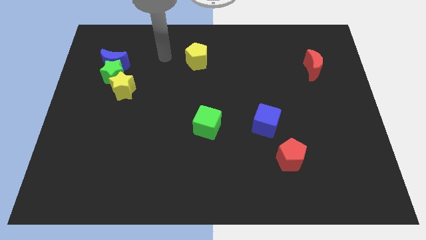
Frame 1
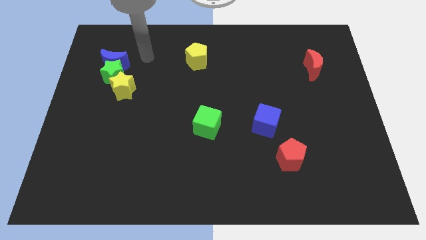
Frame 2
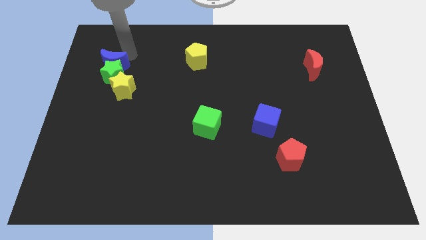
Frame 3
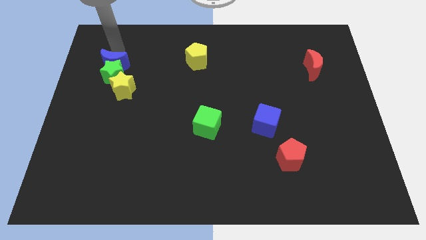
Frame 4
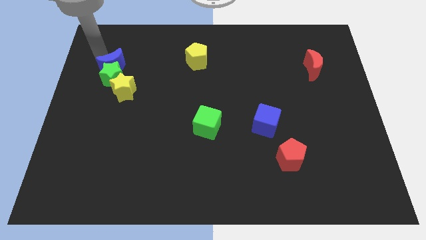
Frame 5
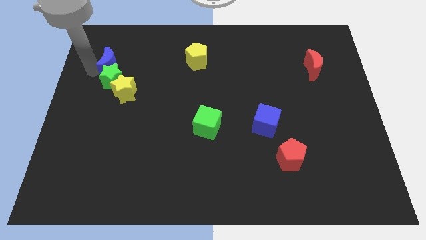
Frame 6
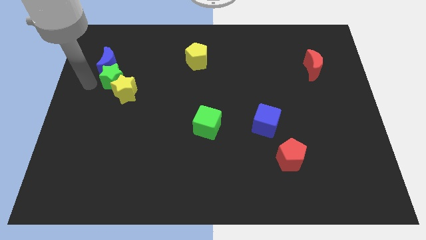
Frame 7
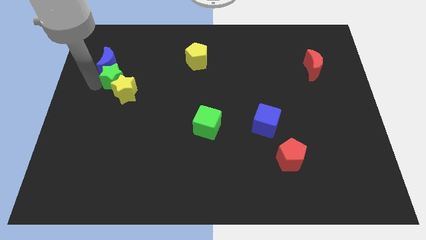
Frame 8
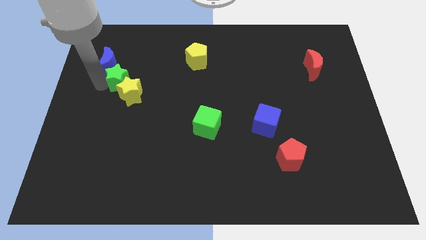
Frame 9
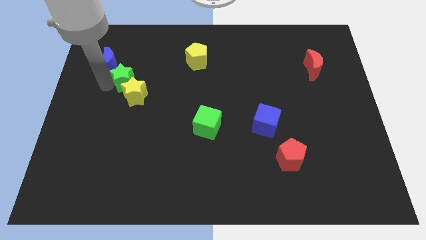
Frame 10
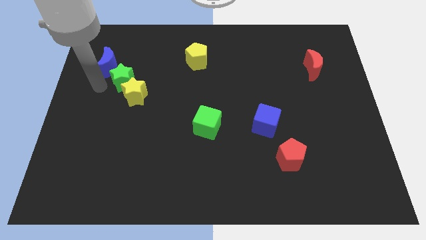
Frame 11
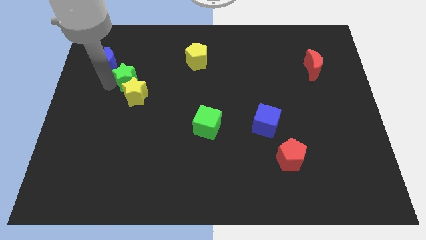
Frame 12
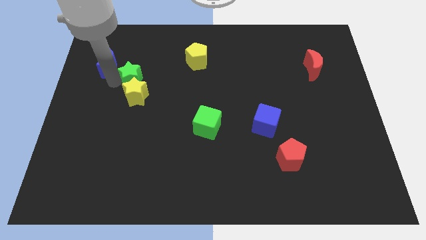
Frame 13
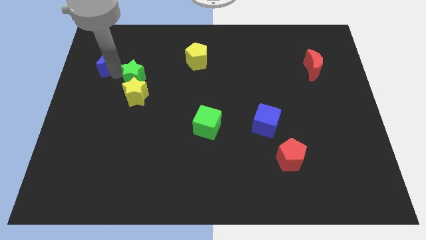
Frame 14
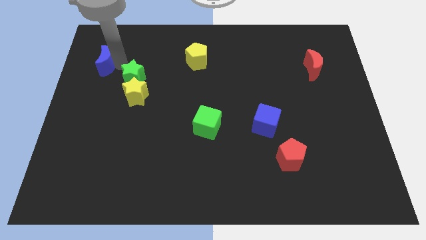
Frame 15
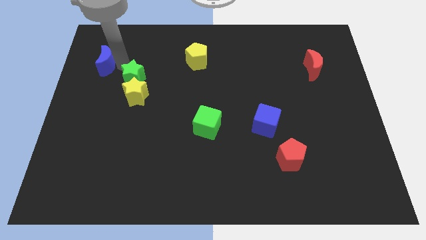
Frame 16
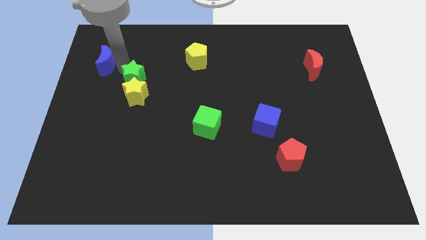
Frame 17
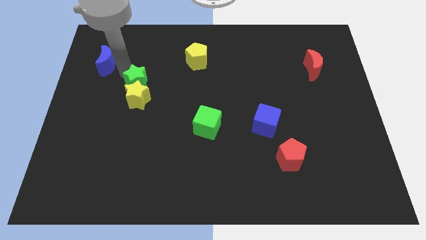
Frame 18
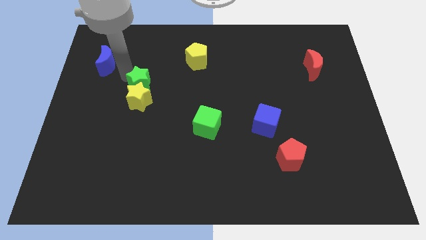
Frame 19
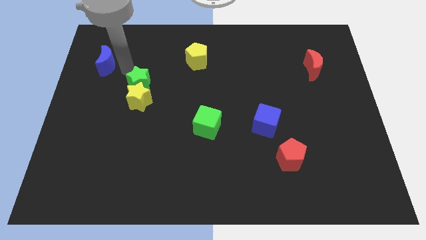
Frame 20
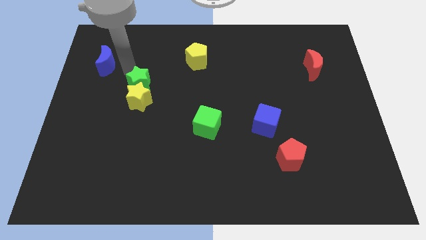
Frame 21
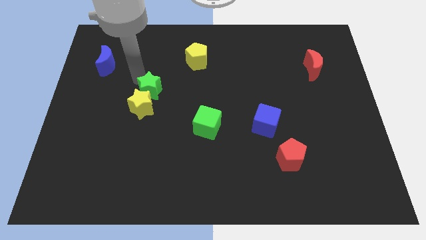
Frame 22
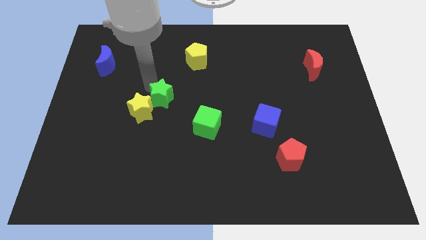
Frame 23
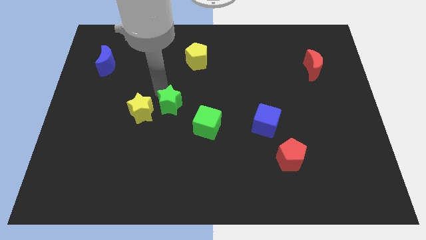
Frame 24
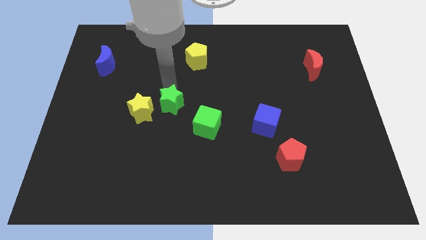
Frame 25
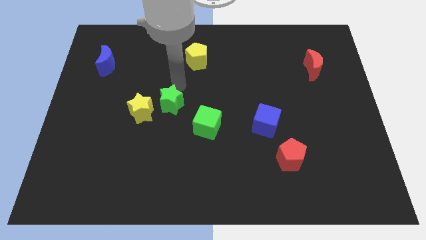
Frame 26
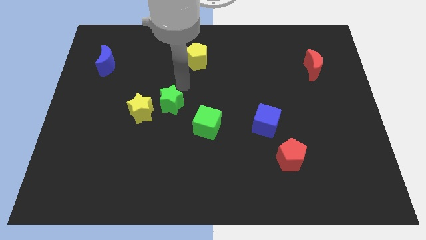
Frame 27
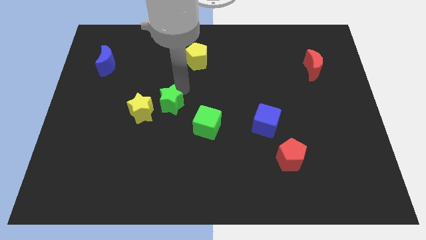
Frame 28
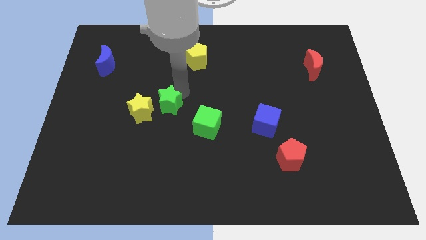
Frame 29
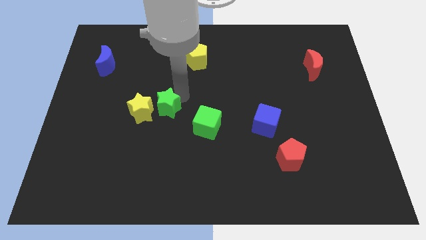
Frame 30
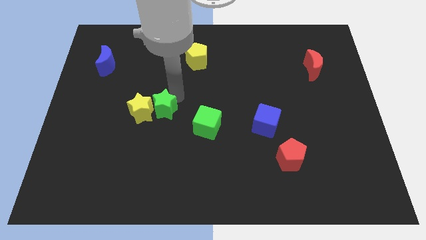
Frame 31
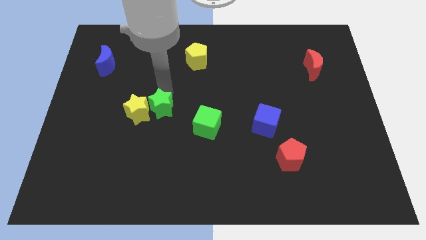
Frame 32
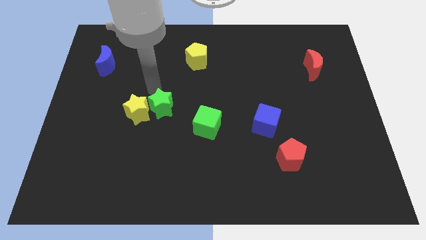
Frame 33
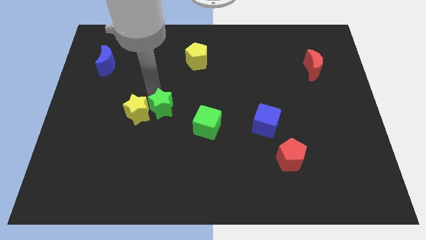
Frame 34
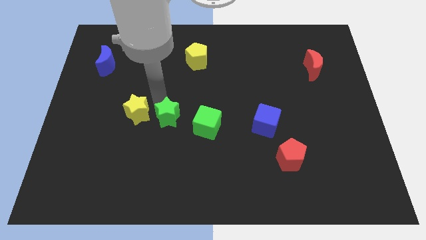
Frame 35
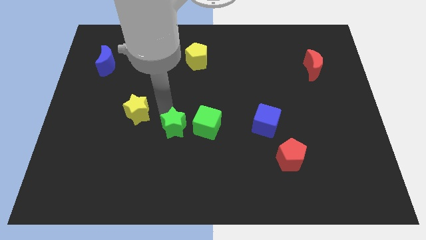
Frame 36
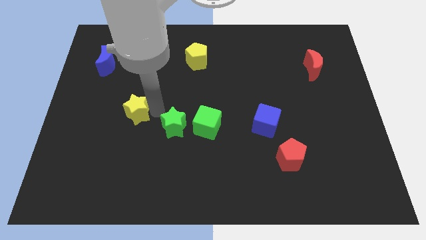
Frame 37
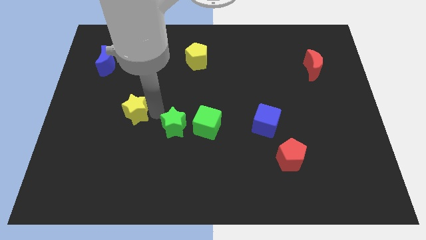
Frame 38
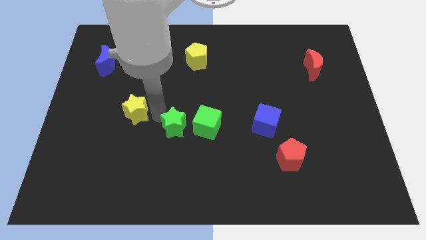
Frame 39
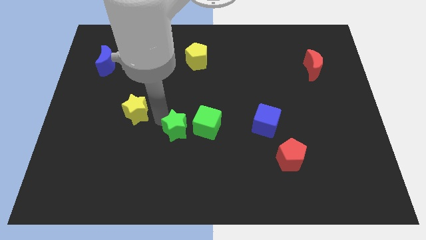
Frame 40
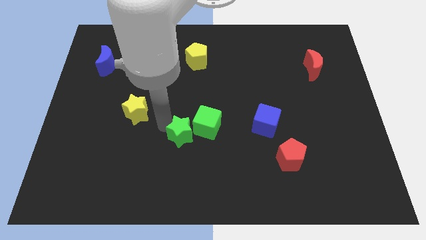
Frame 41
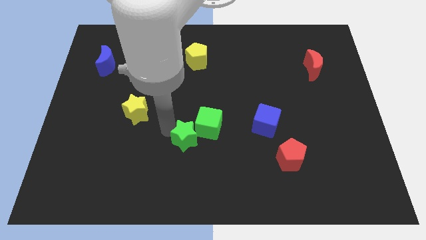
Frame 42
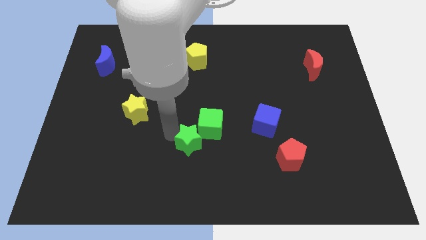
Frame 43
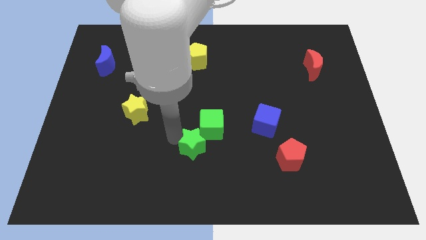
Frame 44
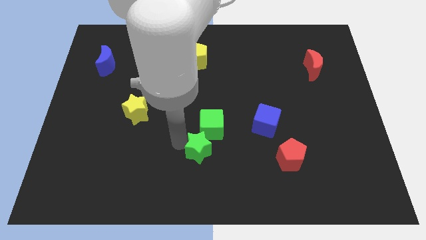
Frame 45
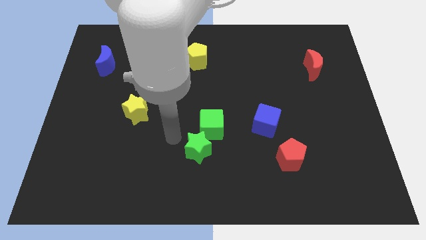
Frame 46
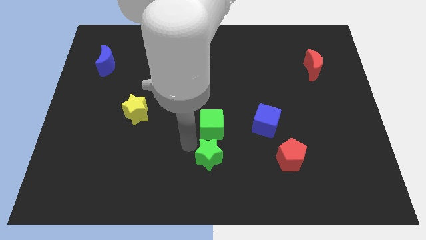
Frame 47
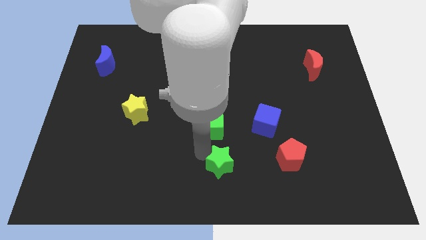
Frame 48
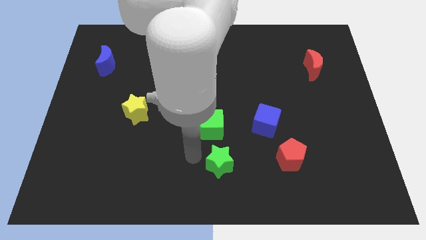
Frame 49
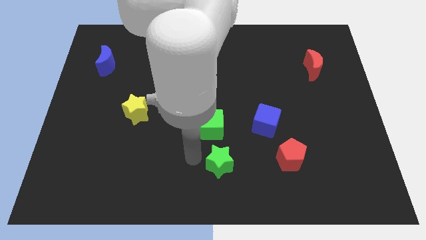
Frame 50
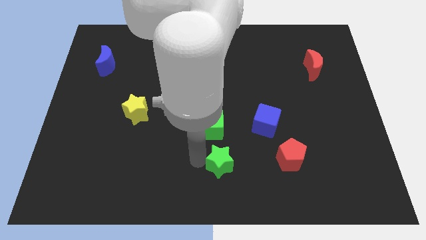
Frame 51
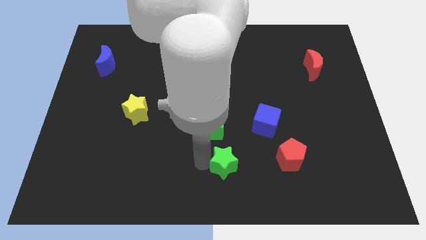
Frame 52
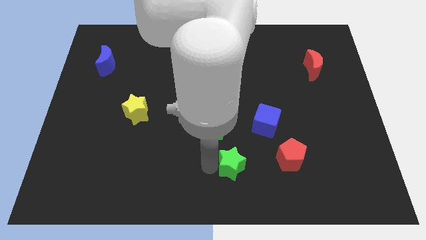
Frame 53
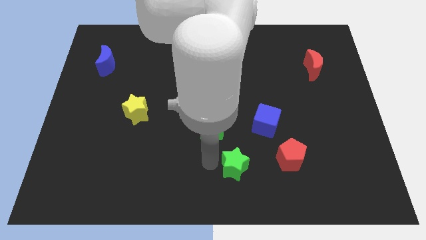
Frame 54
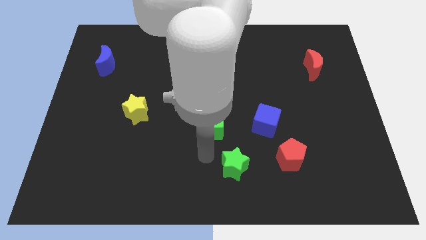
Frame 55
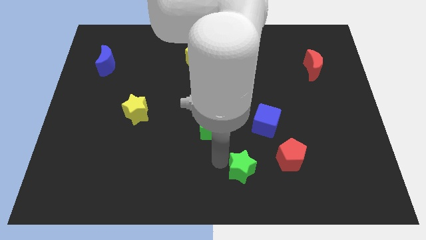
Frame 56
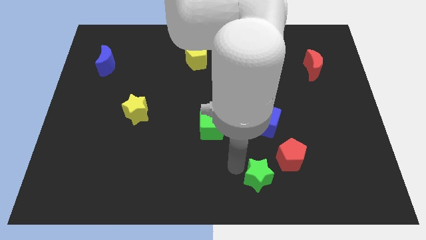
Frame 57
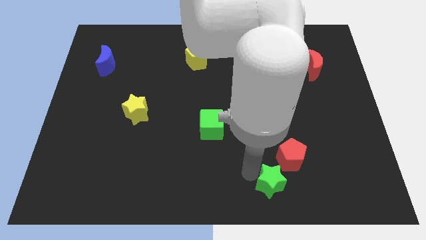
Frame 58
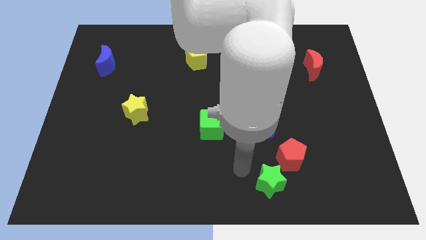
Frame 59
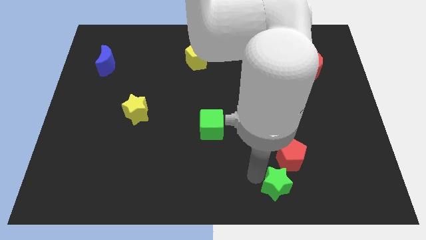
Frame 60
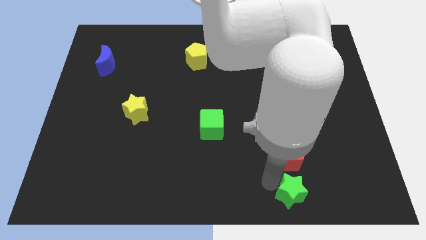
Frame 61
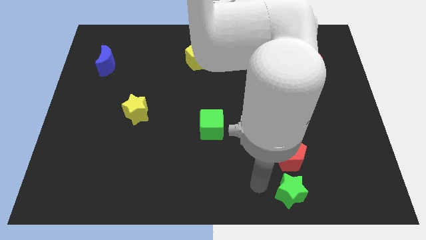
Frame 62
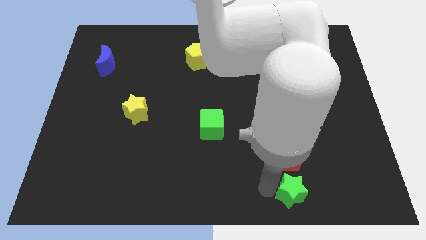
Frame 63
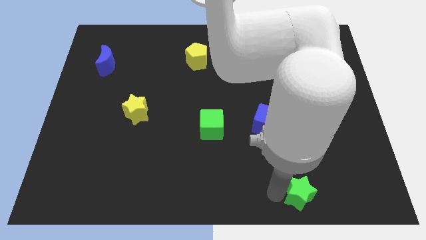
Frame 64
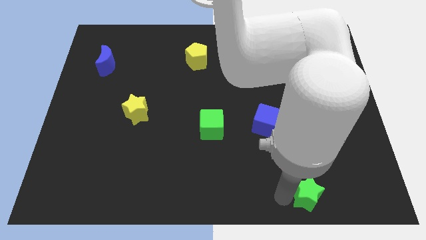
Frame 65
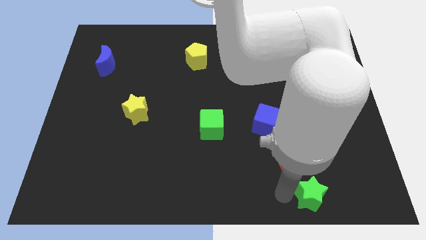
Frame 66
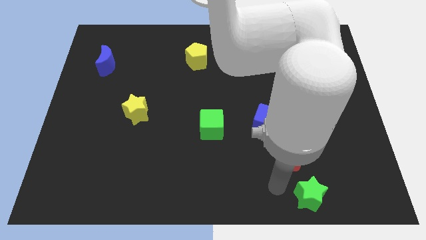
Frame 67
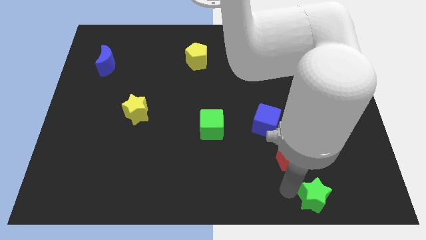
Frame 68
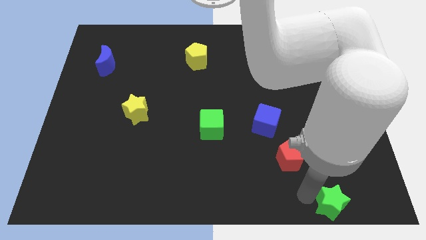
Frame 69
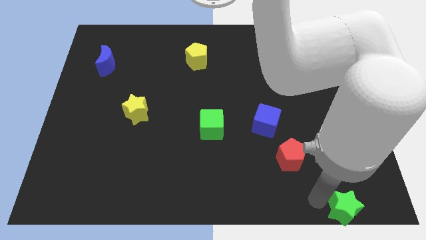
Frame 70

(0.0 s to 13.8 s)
put the green star to the bottom right
